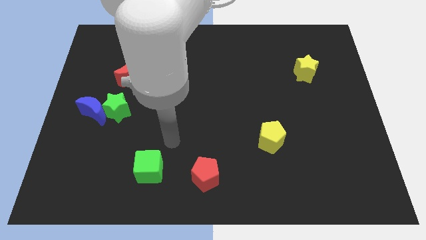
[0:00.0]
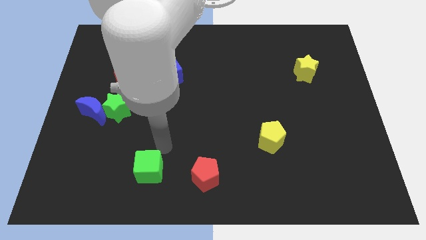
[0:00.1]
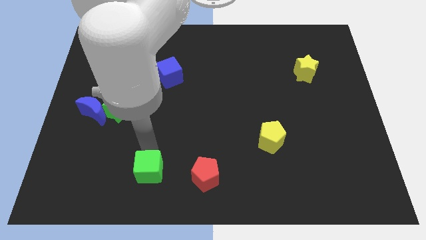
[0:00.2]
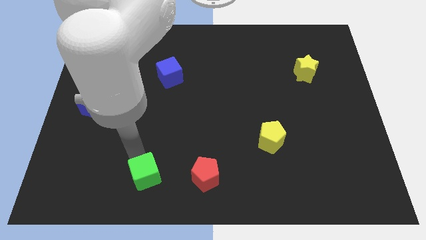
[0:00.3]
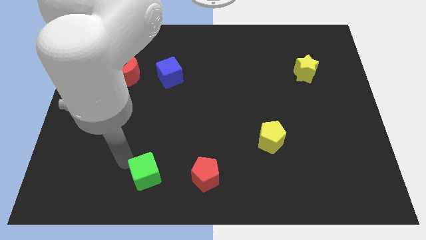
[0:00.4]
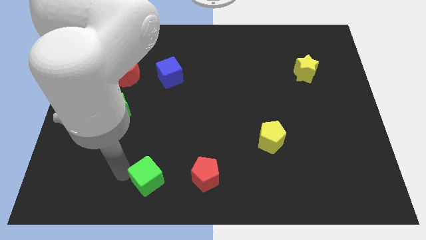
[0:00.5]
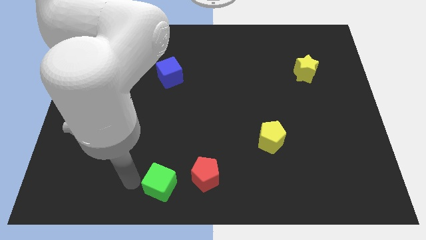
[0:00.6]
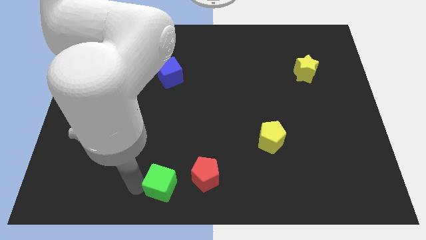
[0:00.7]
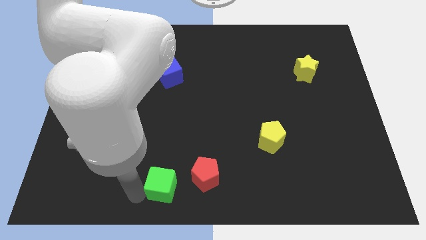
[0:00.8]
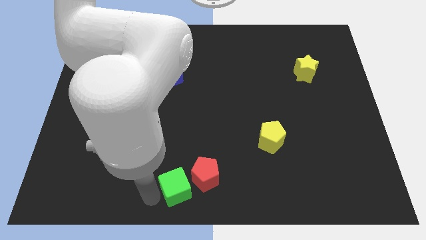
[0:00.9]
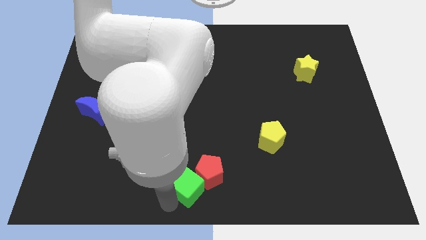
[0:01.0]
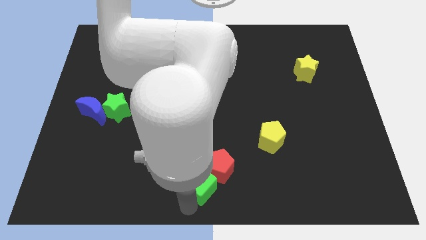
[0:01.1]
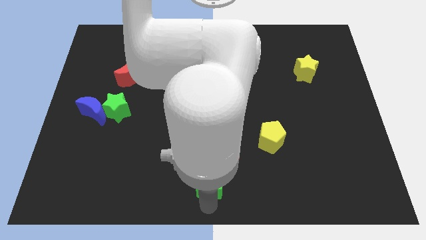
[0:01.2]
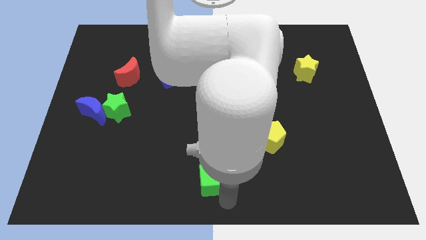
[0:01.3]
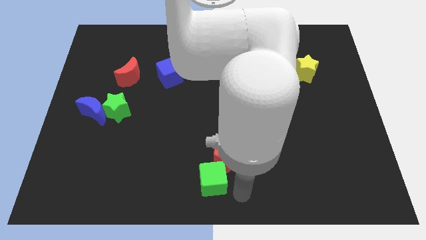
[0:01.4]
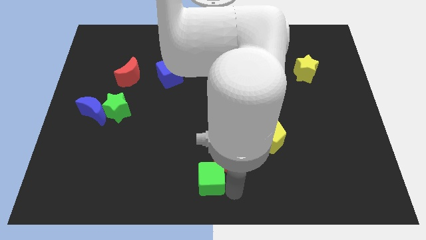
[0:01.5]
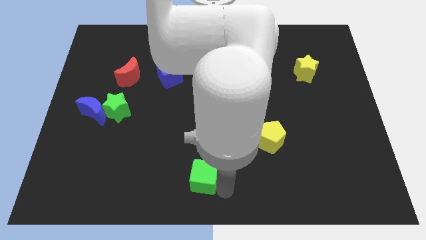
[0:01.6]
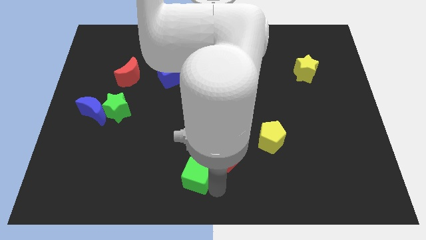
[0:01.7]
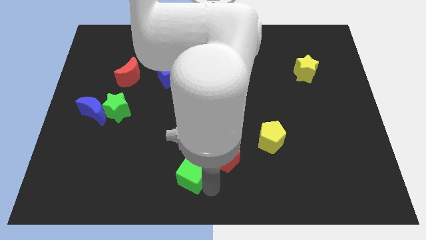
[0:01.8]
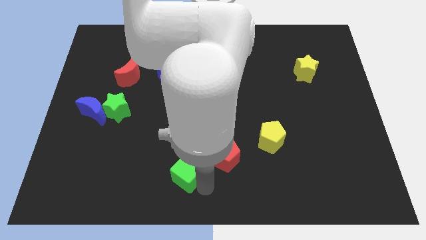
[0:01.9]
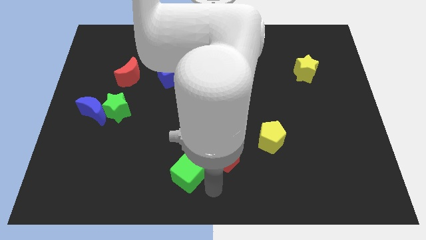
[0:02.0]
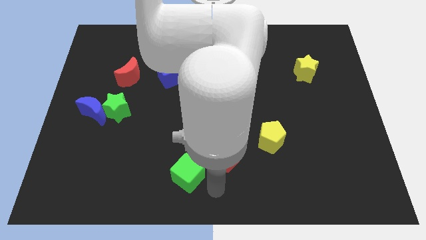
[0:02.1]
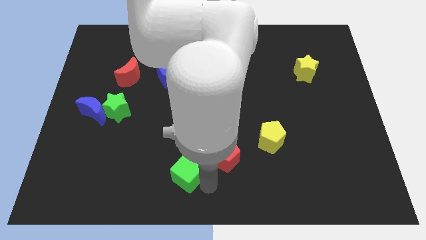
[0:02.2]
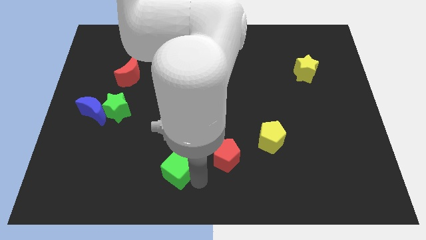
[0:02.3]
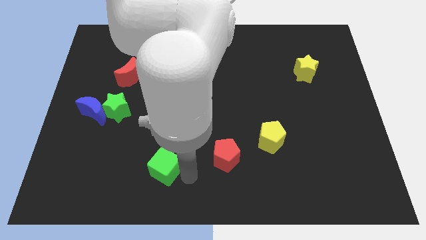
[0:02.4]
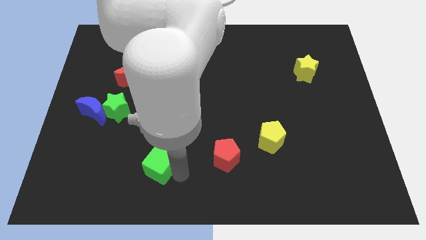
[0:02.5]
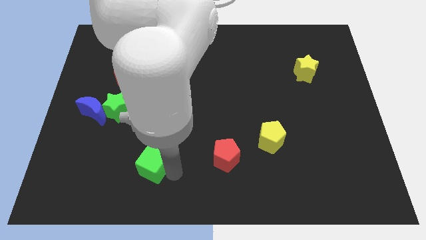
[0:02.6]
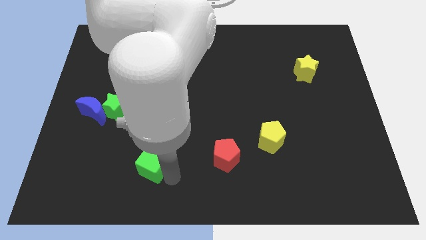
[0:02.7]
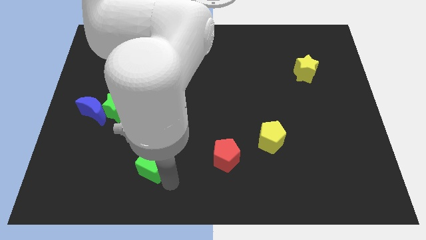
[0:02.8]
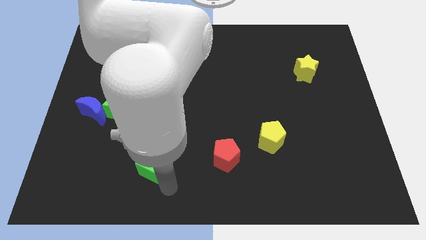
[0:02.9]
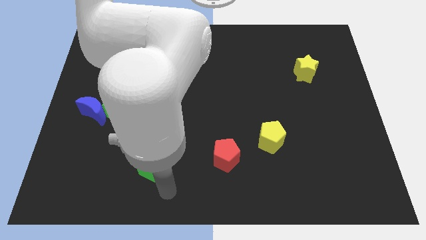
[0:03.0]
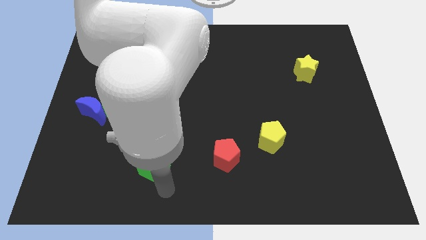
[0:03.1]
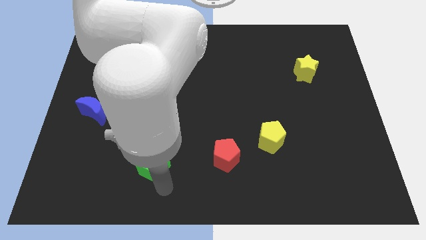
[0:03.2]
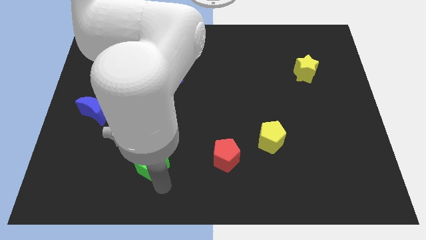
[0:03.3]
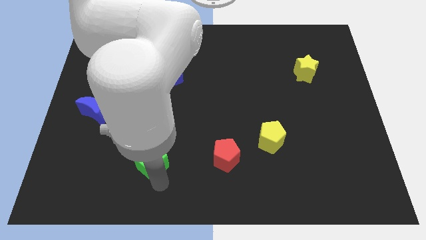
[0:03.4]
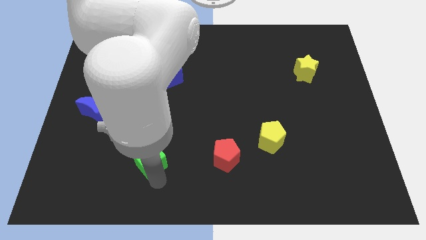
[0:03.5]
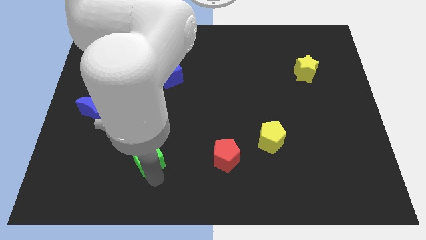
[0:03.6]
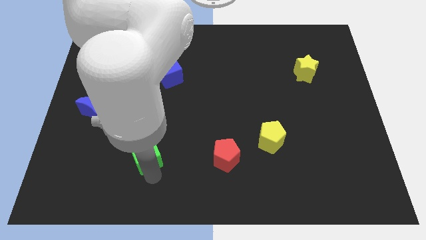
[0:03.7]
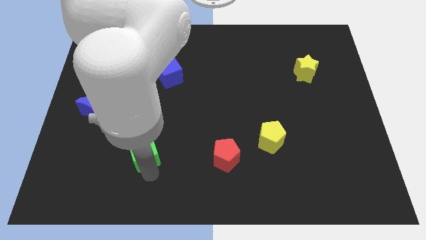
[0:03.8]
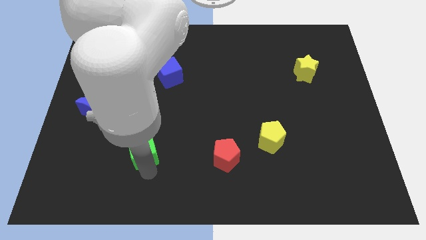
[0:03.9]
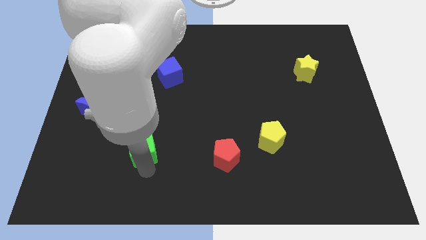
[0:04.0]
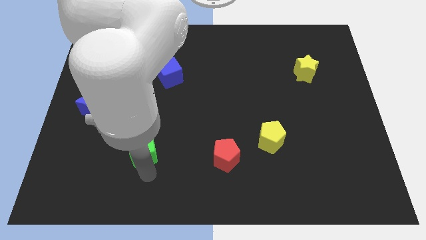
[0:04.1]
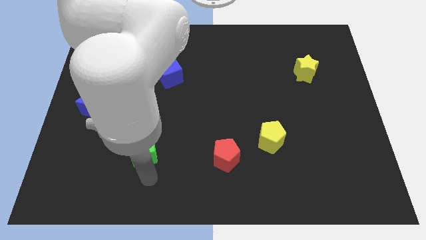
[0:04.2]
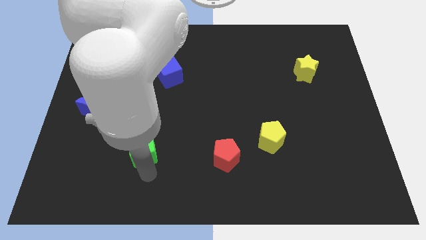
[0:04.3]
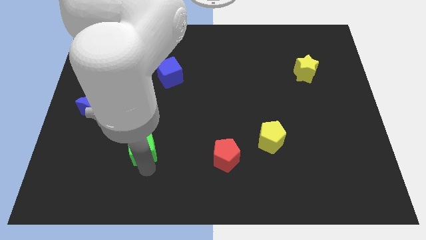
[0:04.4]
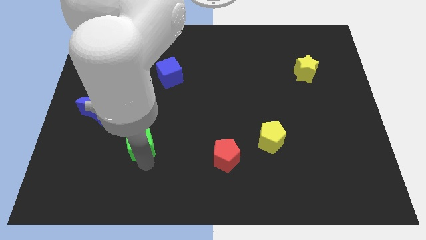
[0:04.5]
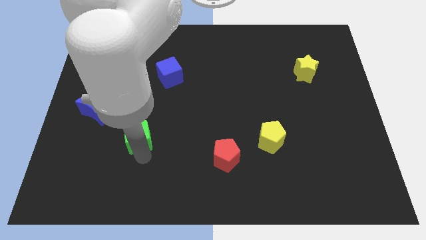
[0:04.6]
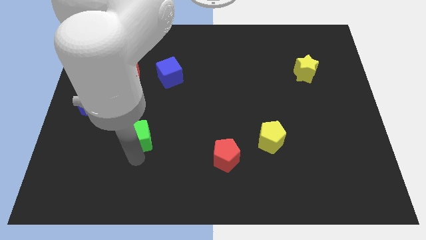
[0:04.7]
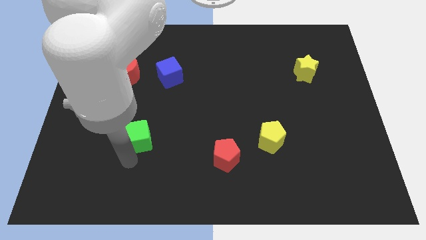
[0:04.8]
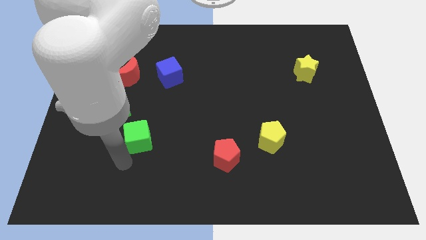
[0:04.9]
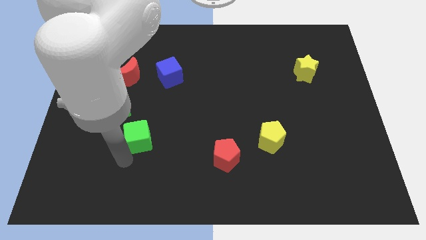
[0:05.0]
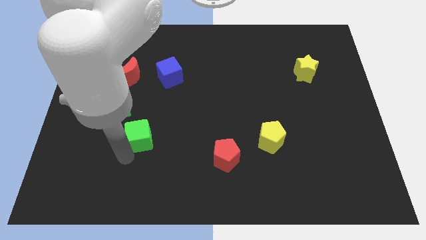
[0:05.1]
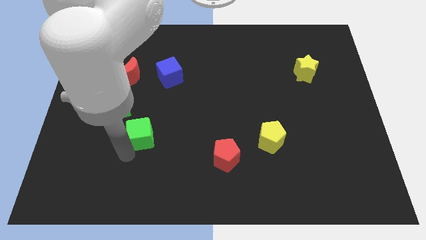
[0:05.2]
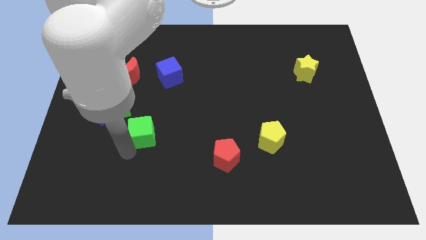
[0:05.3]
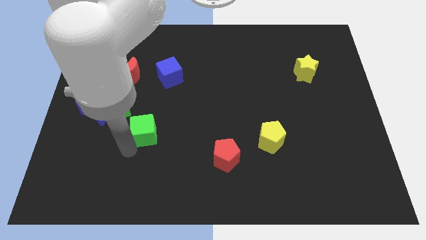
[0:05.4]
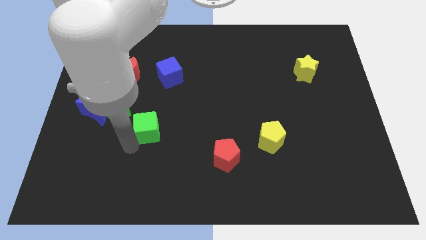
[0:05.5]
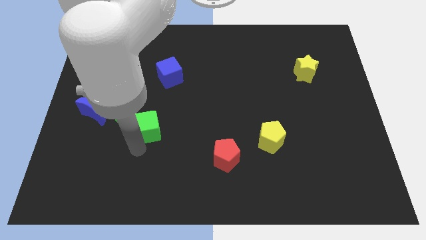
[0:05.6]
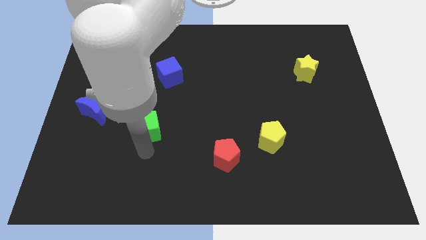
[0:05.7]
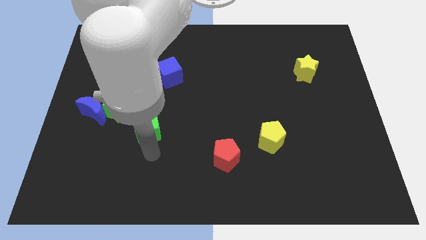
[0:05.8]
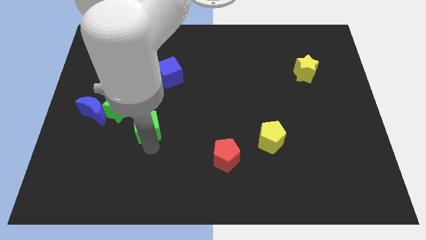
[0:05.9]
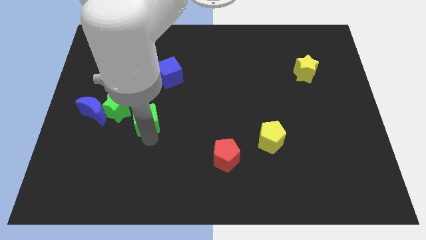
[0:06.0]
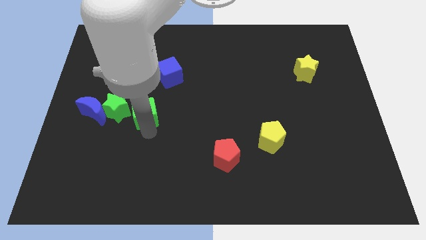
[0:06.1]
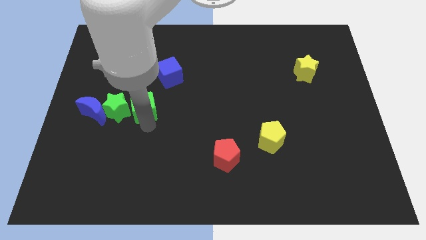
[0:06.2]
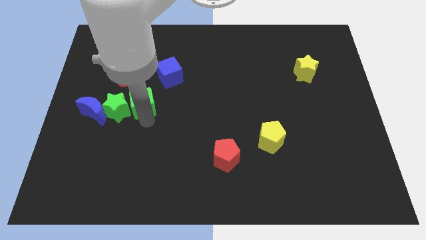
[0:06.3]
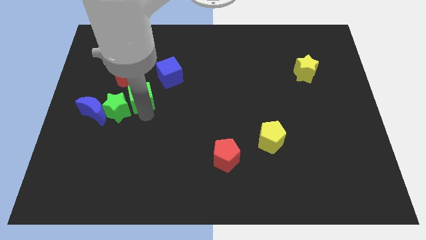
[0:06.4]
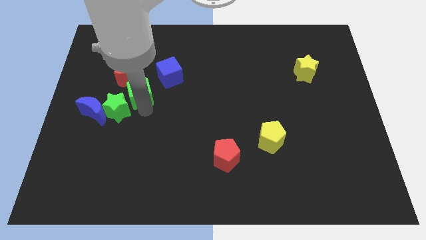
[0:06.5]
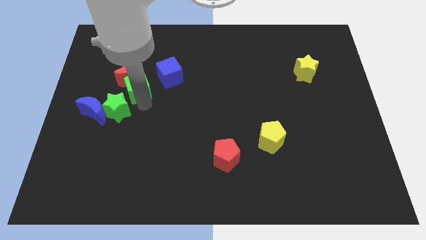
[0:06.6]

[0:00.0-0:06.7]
slide the green cube to the red moon

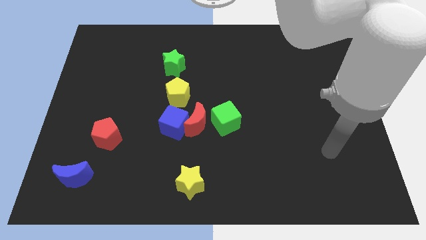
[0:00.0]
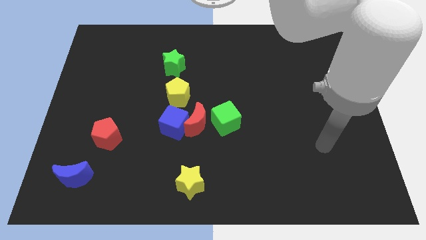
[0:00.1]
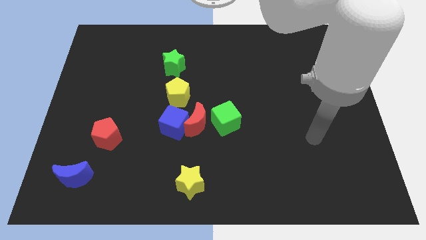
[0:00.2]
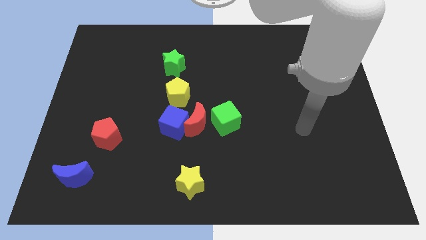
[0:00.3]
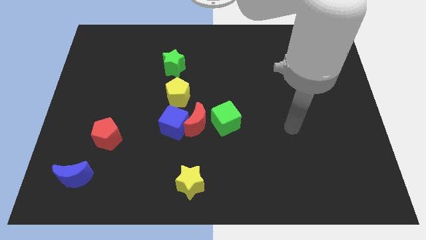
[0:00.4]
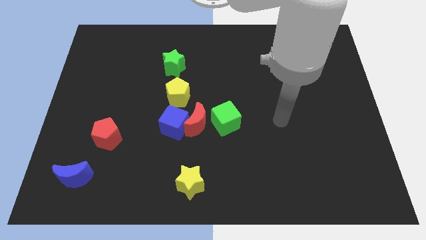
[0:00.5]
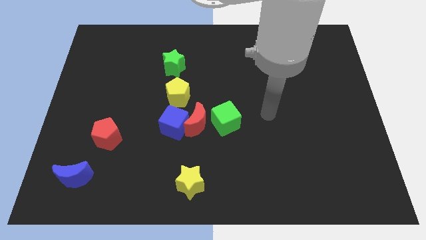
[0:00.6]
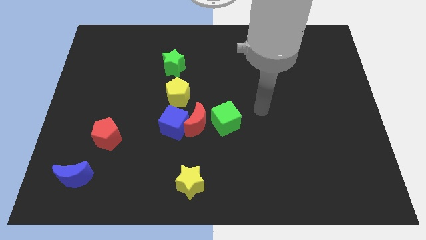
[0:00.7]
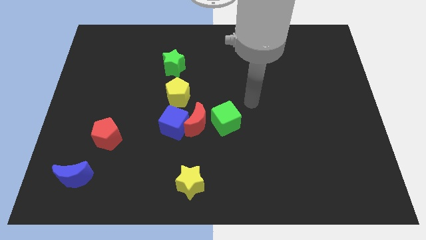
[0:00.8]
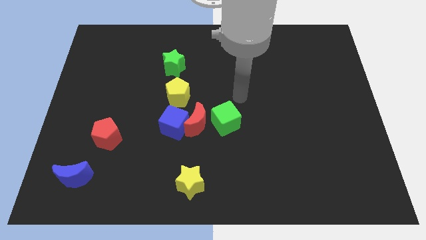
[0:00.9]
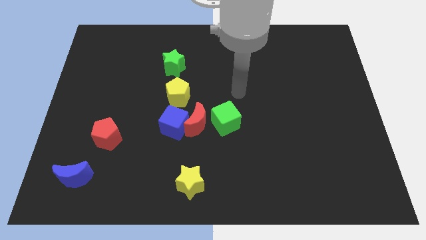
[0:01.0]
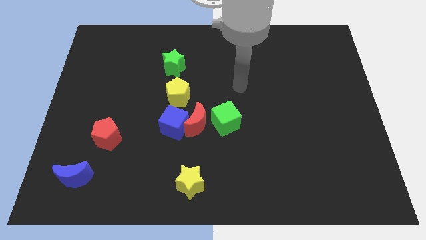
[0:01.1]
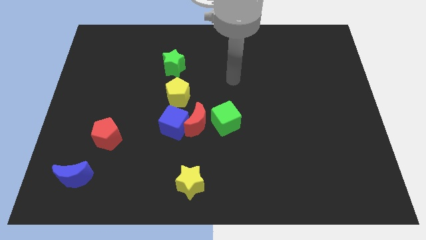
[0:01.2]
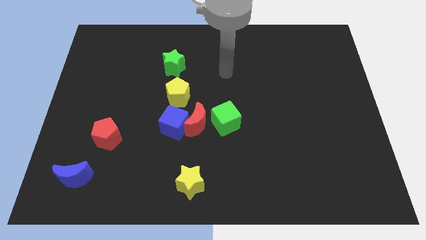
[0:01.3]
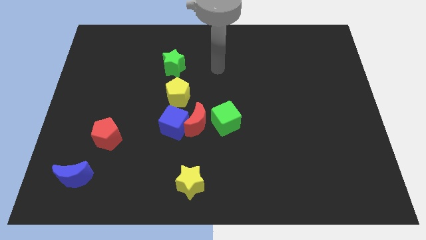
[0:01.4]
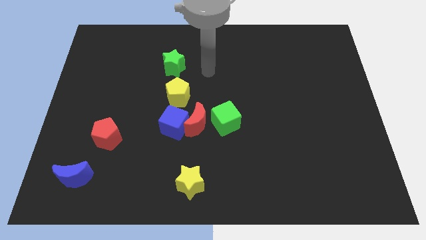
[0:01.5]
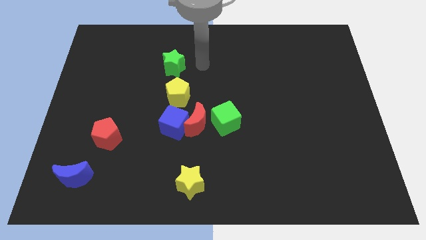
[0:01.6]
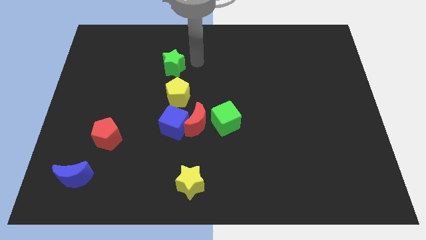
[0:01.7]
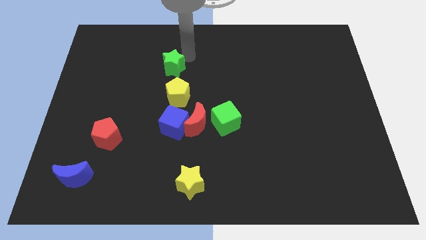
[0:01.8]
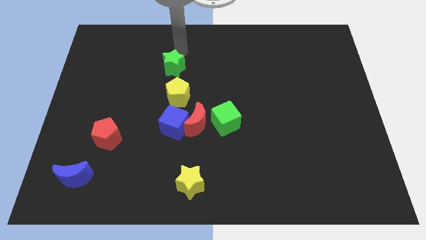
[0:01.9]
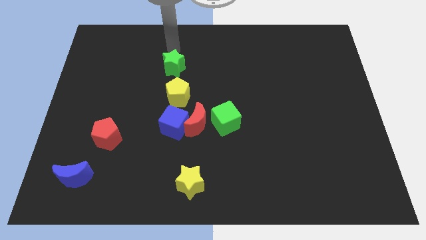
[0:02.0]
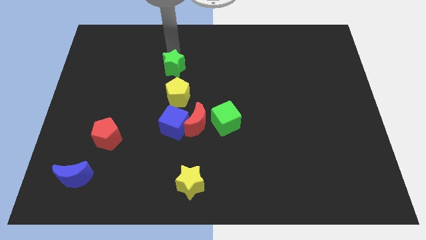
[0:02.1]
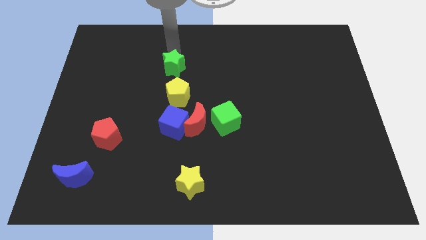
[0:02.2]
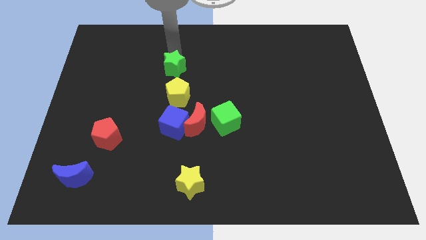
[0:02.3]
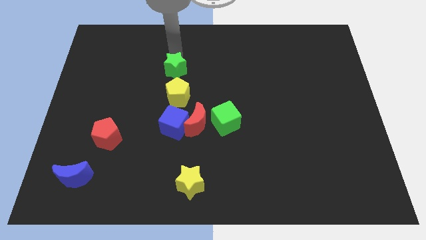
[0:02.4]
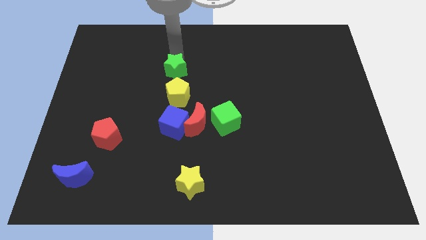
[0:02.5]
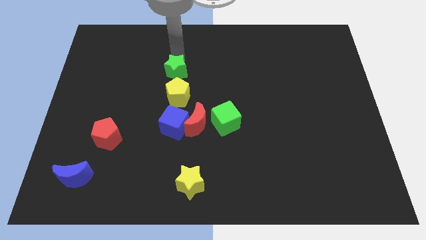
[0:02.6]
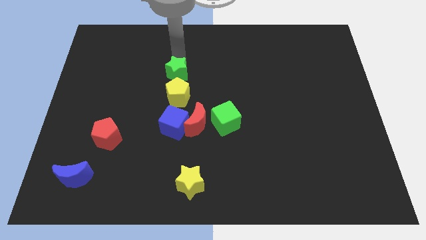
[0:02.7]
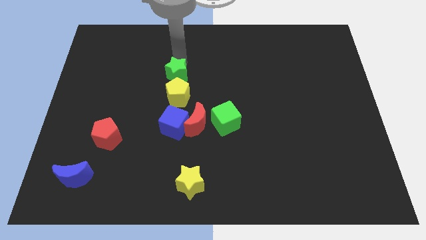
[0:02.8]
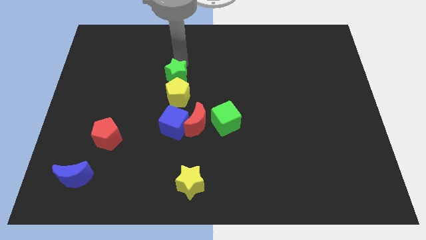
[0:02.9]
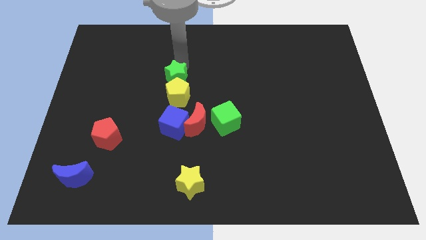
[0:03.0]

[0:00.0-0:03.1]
move the green star next to the yellow pentagon
